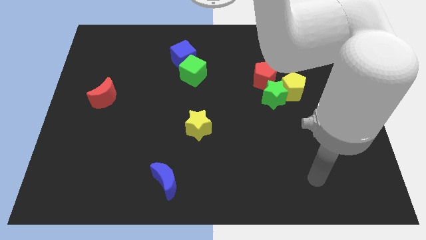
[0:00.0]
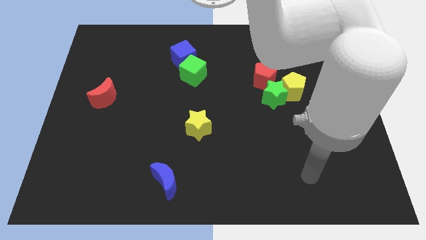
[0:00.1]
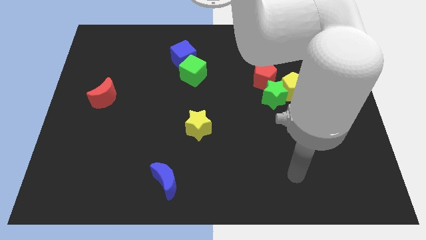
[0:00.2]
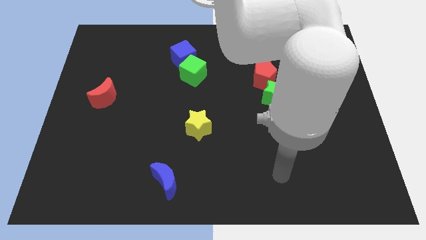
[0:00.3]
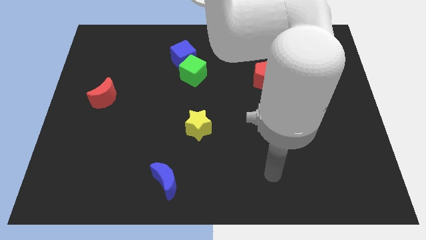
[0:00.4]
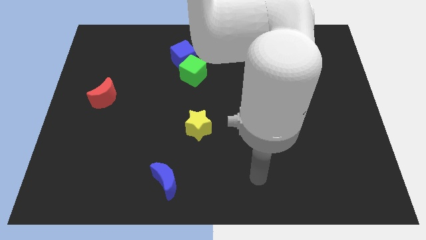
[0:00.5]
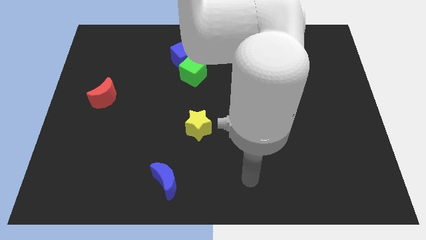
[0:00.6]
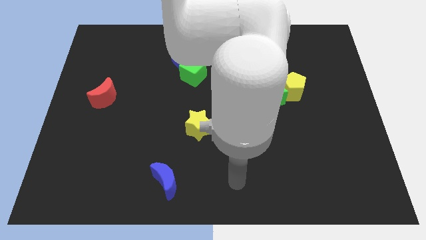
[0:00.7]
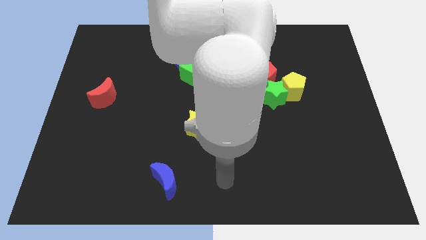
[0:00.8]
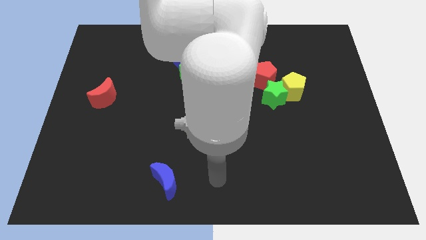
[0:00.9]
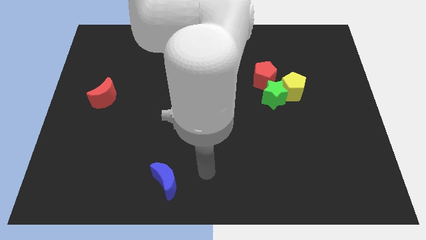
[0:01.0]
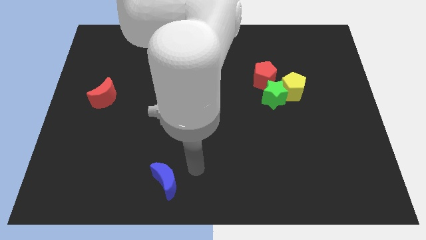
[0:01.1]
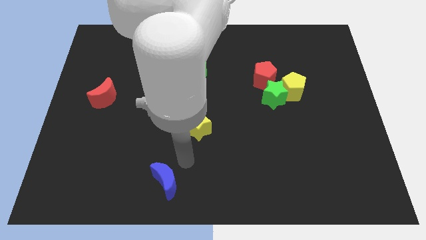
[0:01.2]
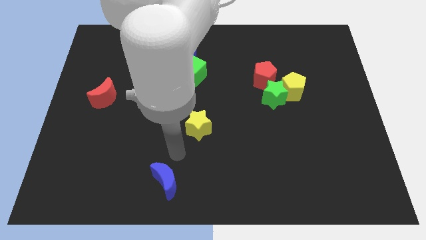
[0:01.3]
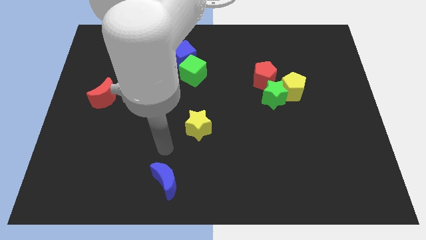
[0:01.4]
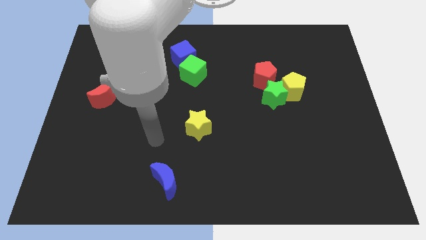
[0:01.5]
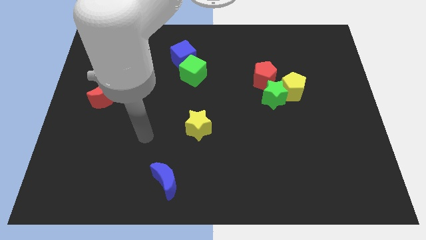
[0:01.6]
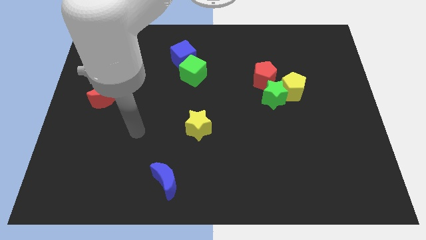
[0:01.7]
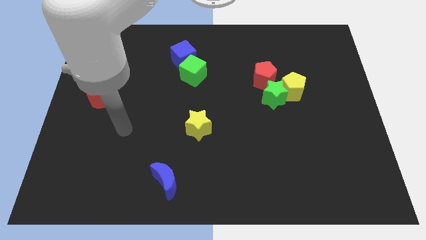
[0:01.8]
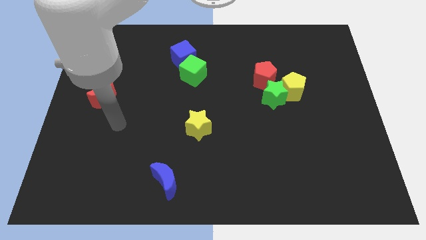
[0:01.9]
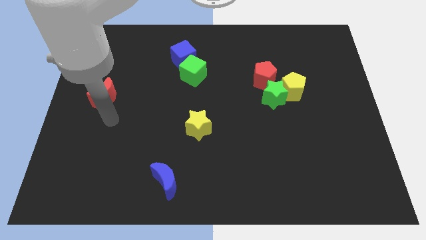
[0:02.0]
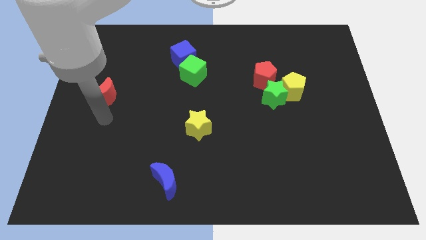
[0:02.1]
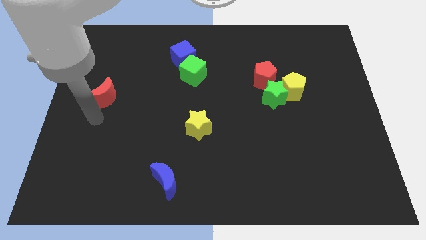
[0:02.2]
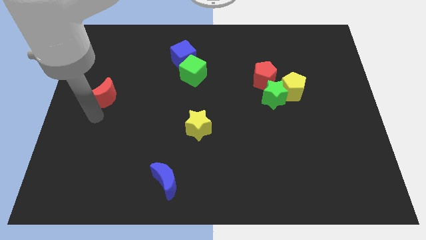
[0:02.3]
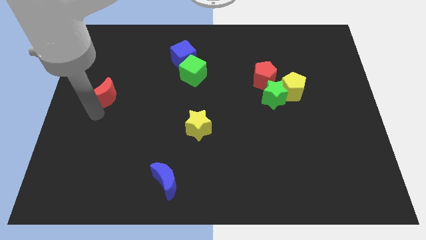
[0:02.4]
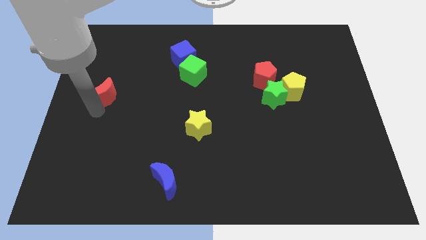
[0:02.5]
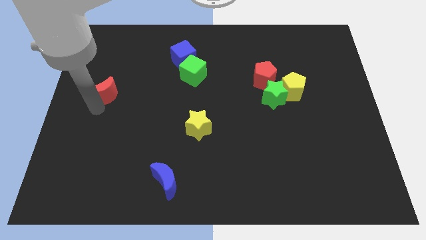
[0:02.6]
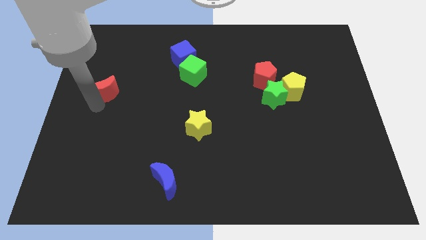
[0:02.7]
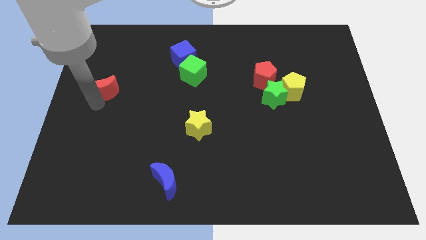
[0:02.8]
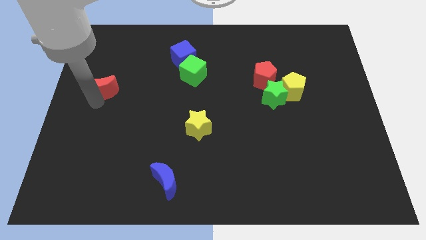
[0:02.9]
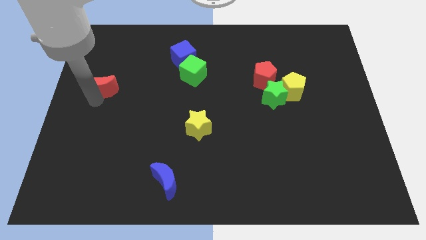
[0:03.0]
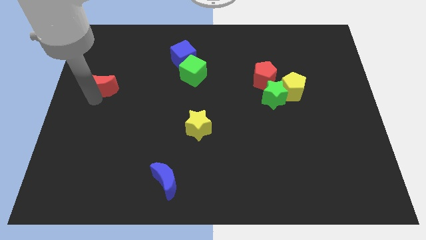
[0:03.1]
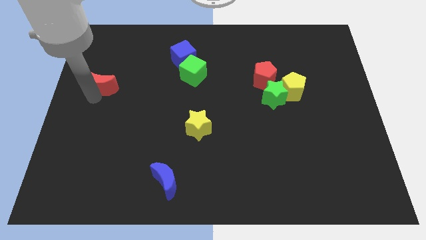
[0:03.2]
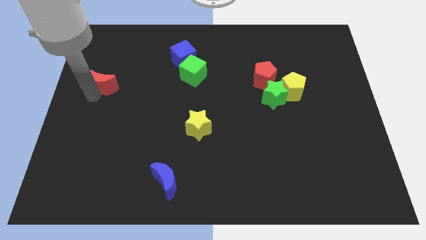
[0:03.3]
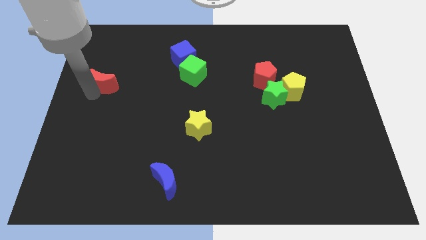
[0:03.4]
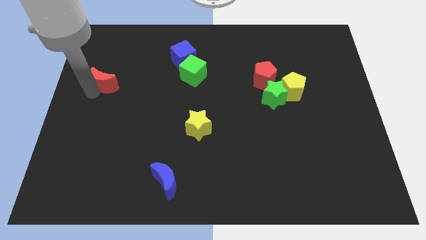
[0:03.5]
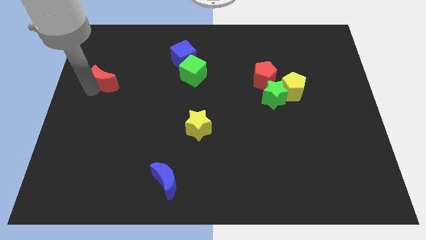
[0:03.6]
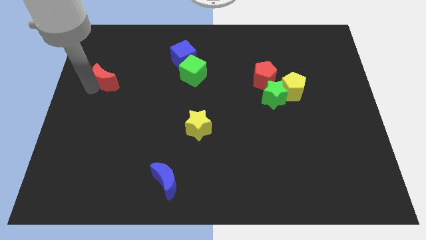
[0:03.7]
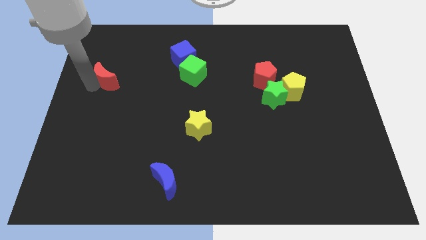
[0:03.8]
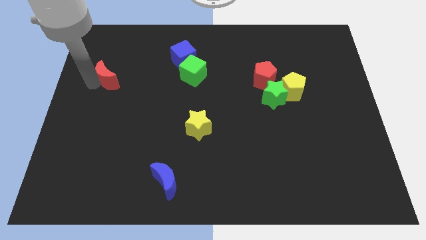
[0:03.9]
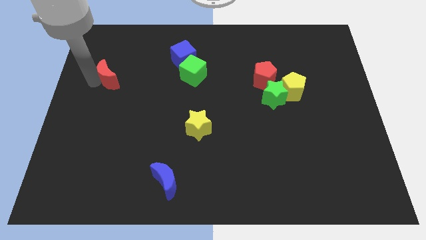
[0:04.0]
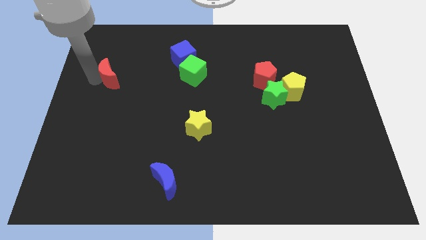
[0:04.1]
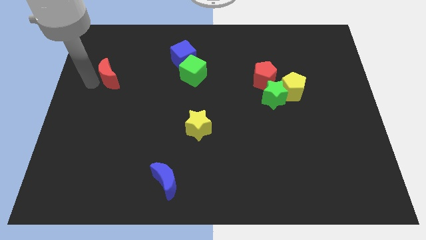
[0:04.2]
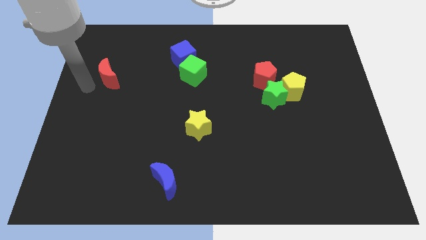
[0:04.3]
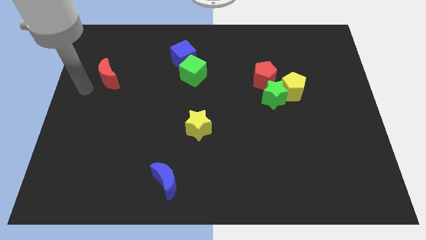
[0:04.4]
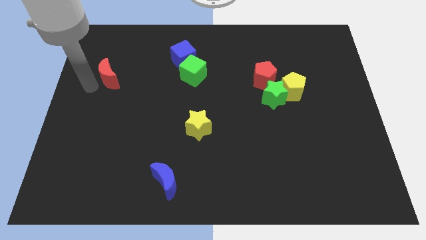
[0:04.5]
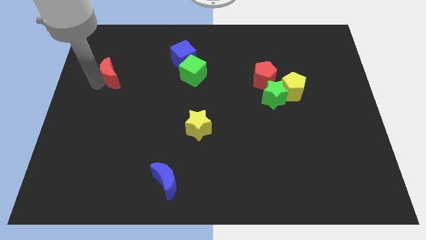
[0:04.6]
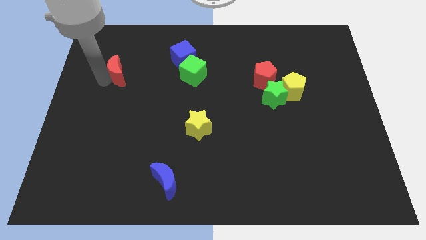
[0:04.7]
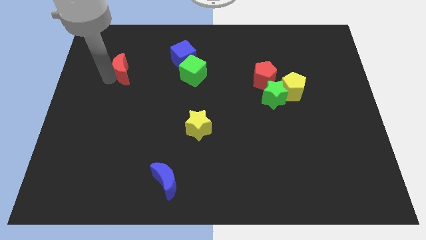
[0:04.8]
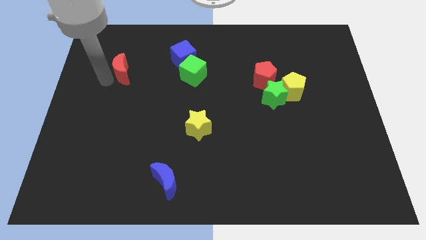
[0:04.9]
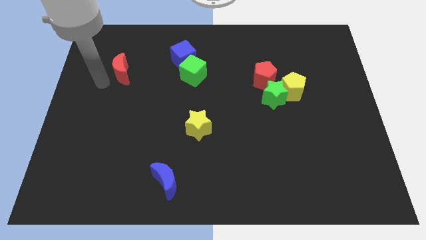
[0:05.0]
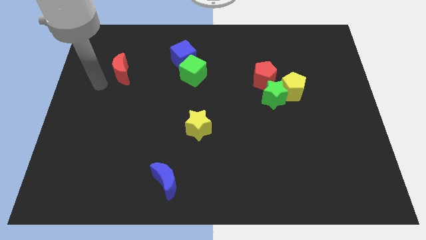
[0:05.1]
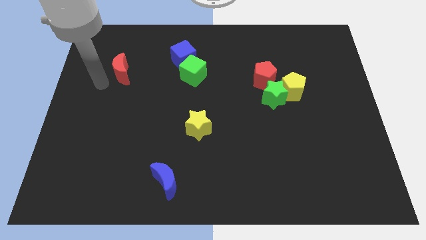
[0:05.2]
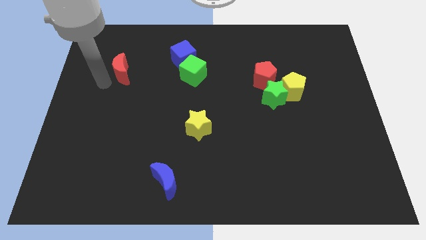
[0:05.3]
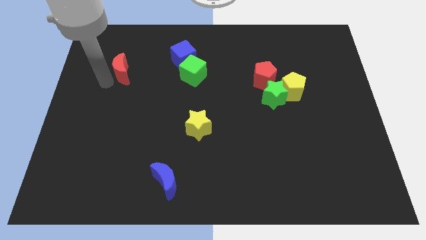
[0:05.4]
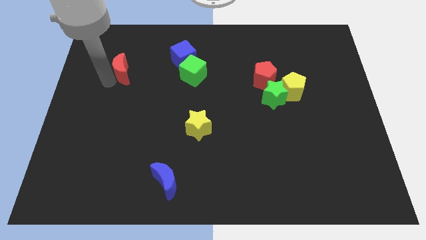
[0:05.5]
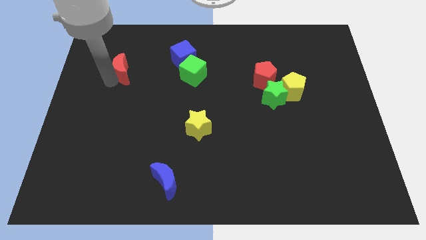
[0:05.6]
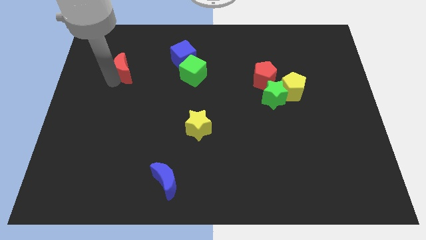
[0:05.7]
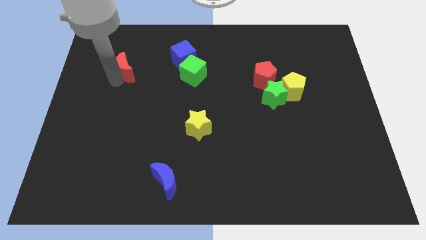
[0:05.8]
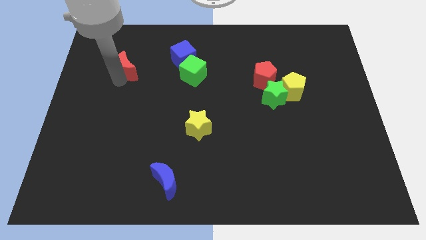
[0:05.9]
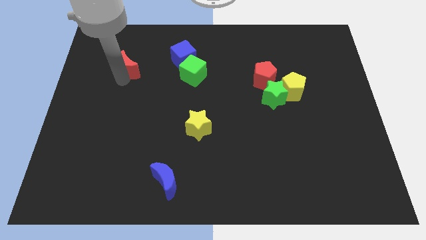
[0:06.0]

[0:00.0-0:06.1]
slide the red moon to the left of the blue cube

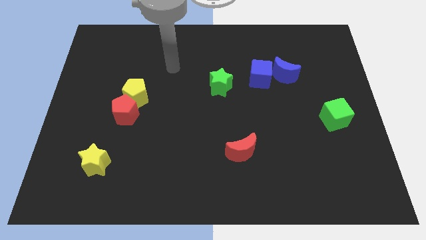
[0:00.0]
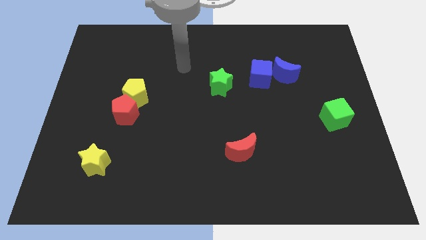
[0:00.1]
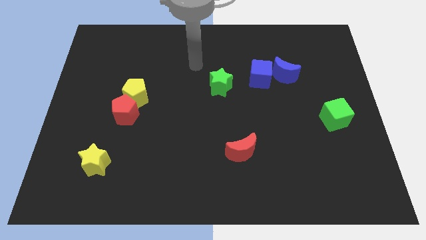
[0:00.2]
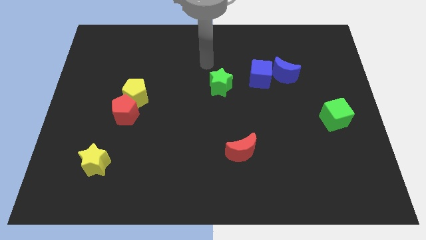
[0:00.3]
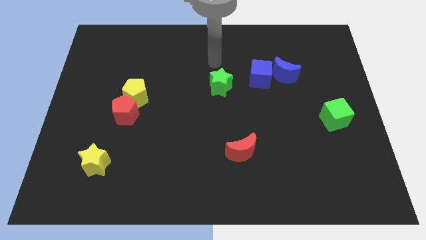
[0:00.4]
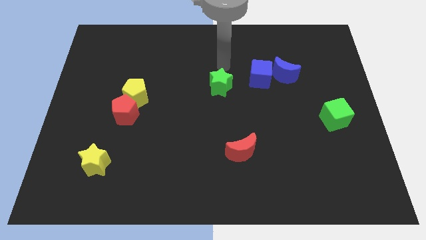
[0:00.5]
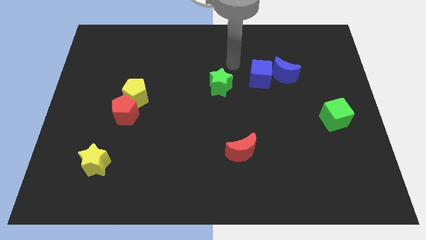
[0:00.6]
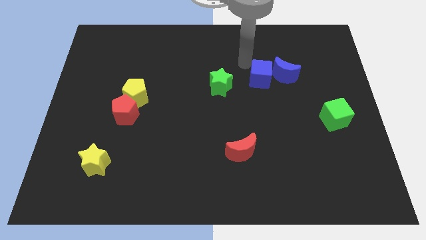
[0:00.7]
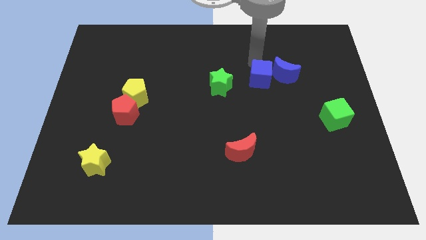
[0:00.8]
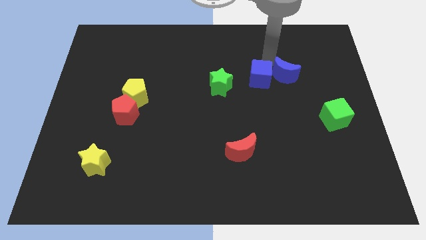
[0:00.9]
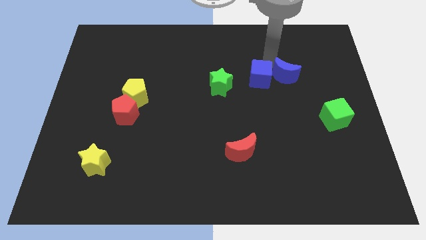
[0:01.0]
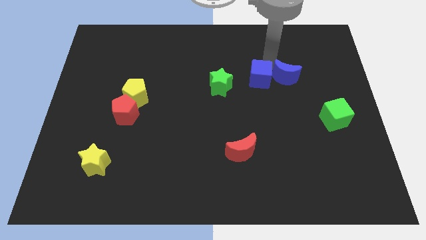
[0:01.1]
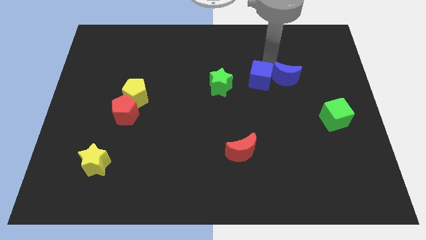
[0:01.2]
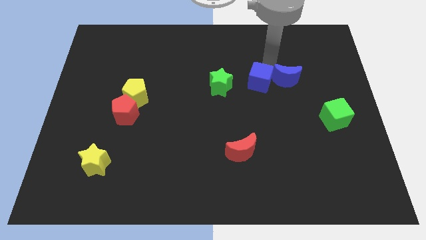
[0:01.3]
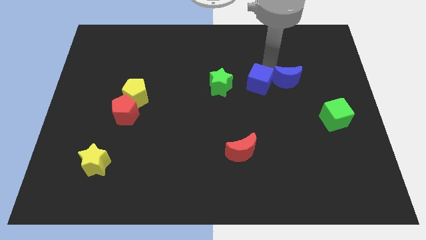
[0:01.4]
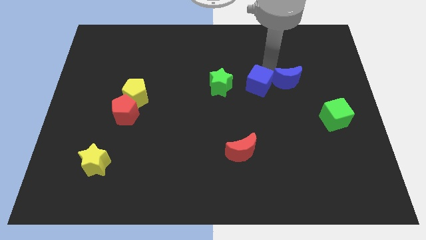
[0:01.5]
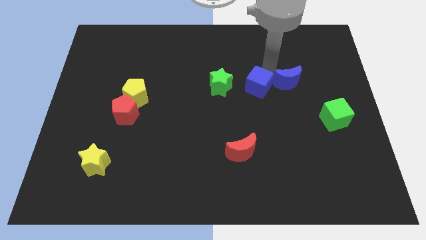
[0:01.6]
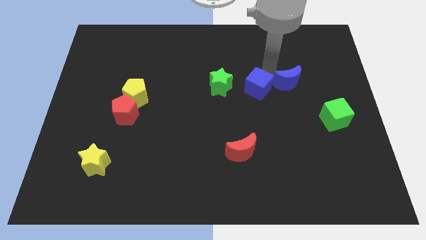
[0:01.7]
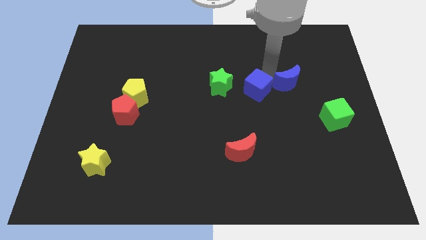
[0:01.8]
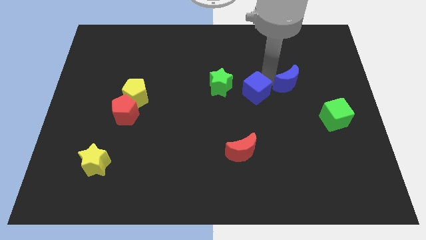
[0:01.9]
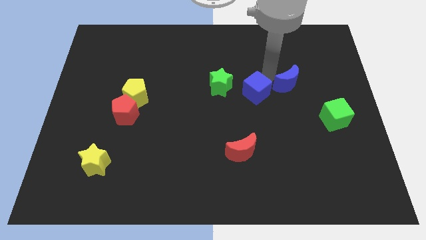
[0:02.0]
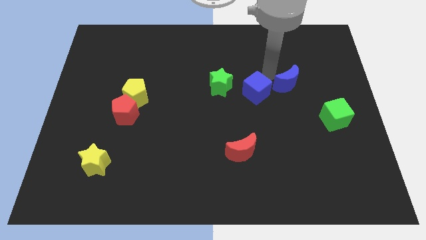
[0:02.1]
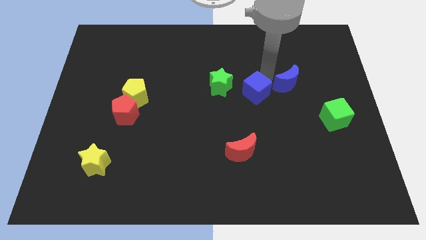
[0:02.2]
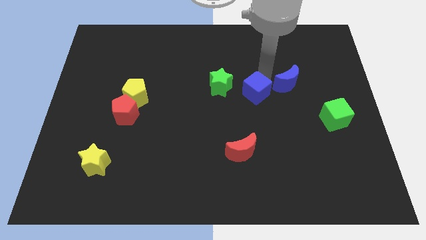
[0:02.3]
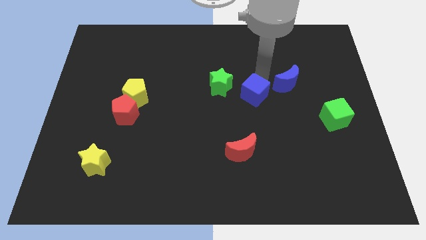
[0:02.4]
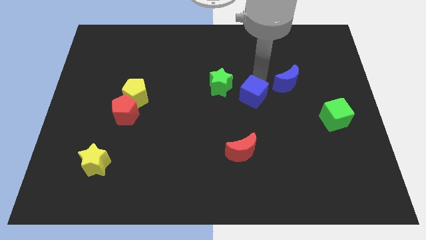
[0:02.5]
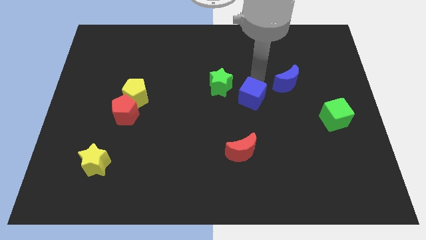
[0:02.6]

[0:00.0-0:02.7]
move the blue cube above the red moon
